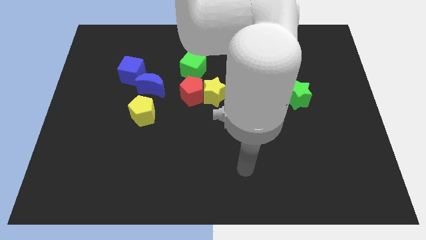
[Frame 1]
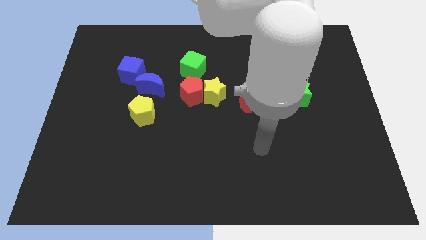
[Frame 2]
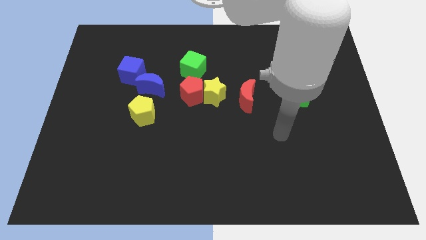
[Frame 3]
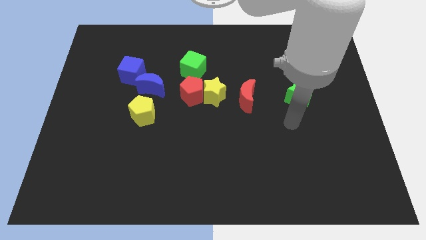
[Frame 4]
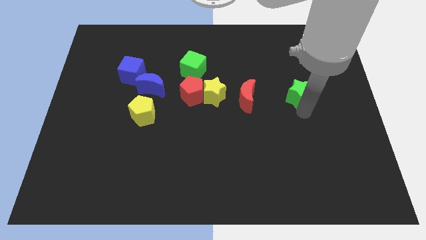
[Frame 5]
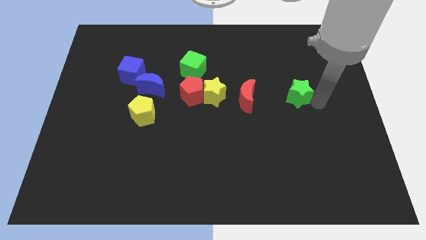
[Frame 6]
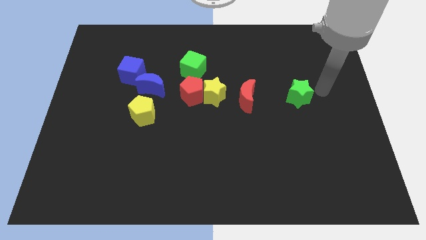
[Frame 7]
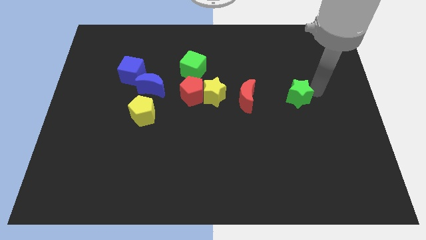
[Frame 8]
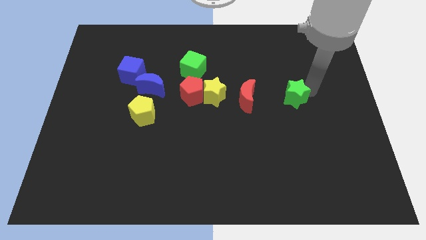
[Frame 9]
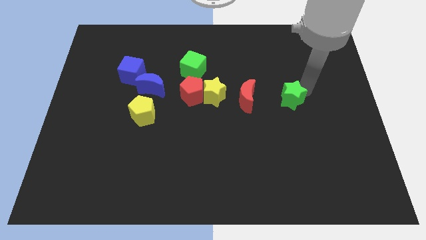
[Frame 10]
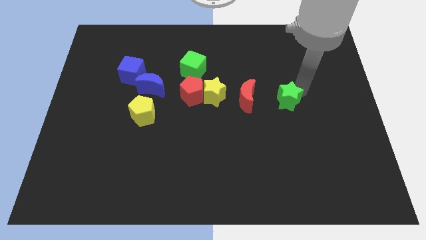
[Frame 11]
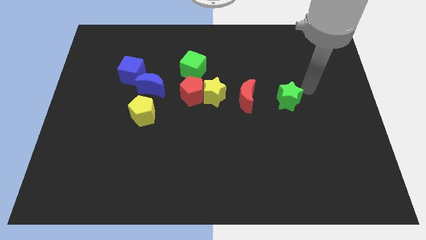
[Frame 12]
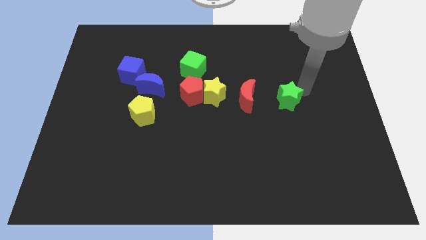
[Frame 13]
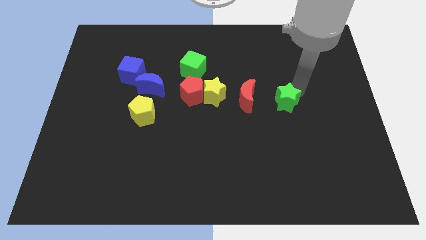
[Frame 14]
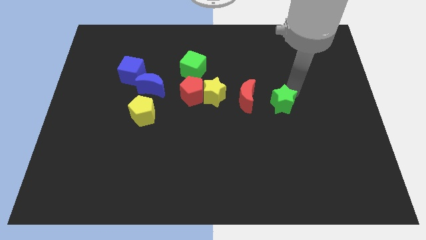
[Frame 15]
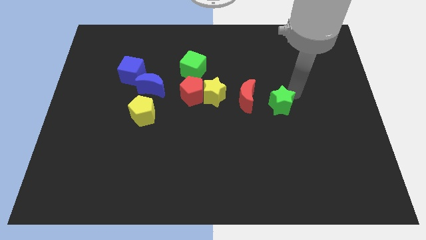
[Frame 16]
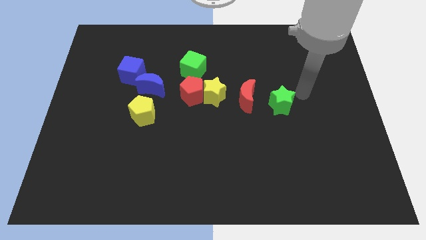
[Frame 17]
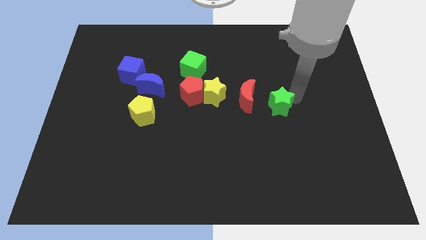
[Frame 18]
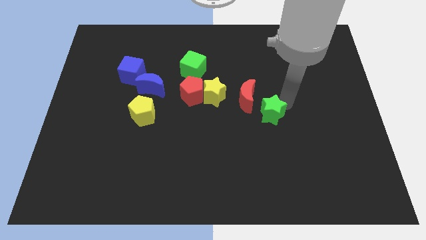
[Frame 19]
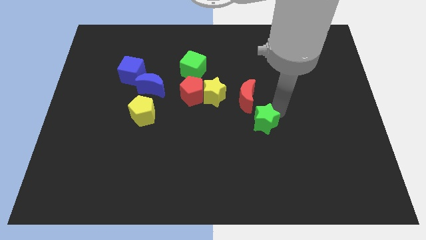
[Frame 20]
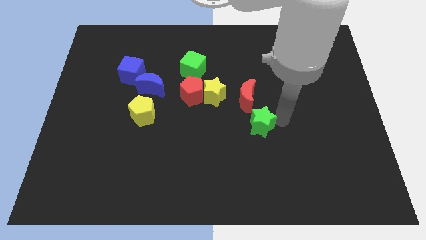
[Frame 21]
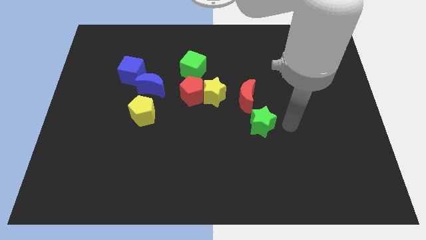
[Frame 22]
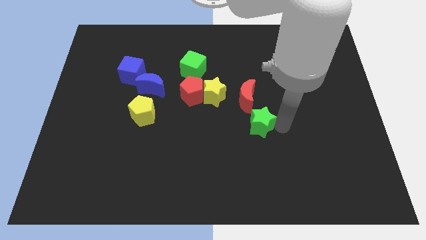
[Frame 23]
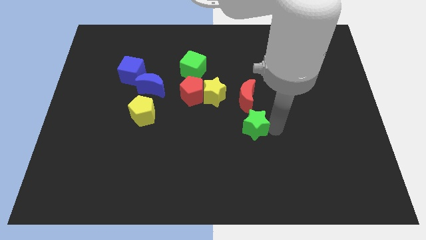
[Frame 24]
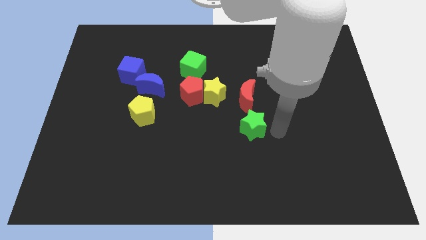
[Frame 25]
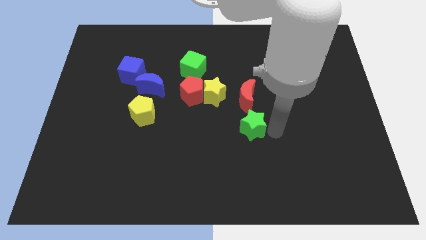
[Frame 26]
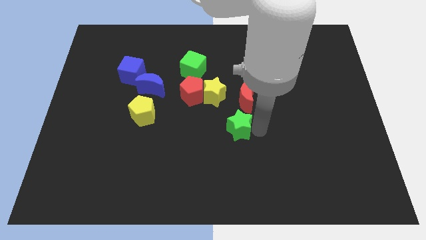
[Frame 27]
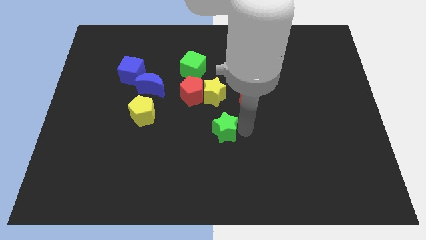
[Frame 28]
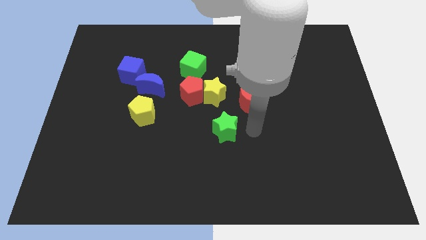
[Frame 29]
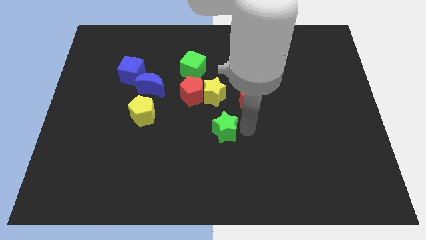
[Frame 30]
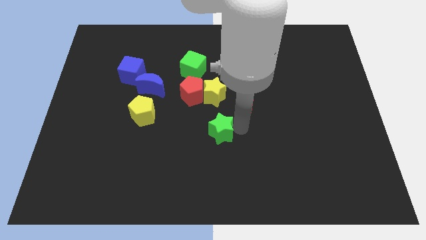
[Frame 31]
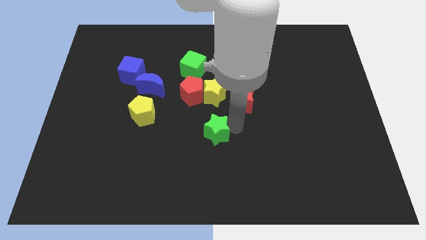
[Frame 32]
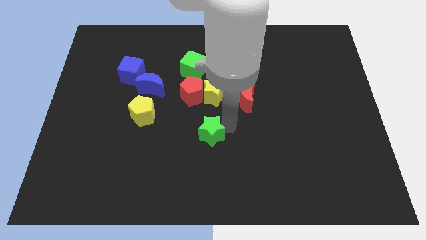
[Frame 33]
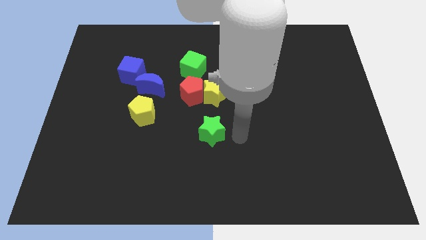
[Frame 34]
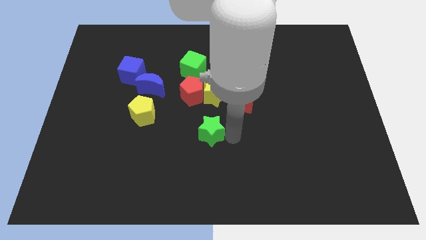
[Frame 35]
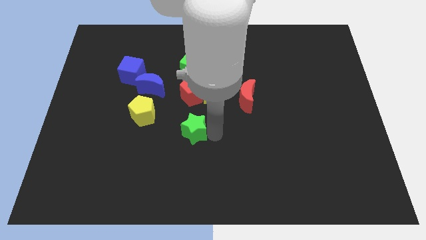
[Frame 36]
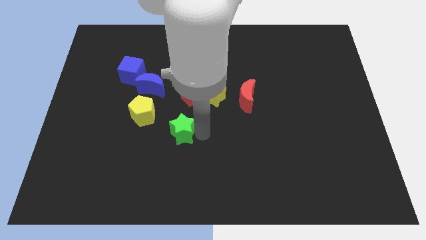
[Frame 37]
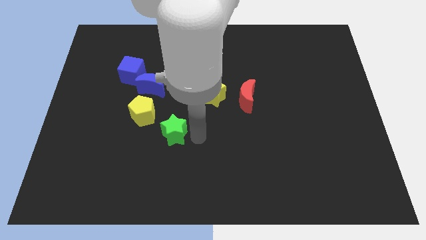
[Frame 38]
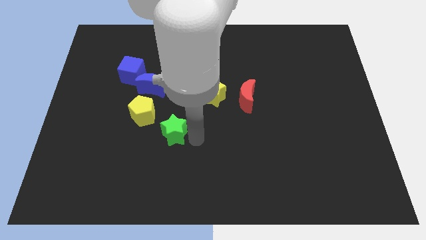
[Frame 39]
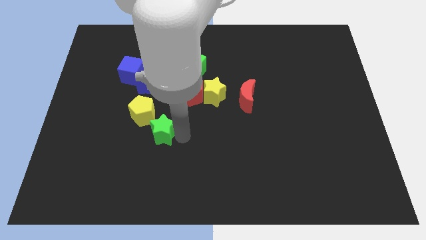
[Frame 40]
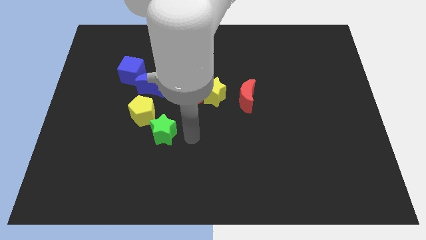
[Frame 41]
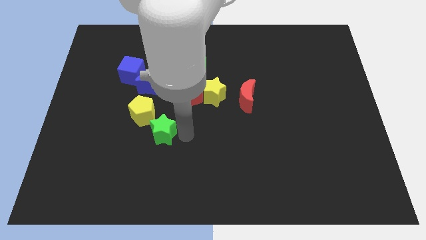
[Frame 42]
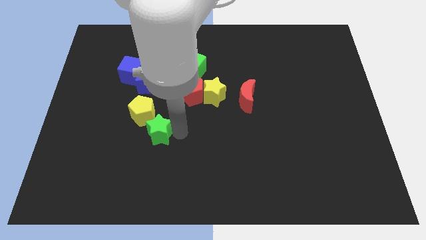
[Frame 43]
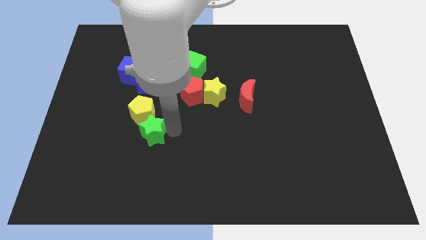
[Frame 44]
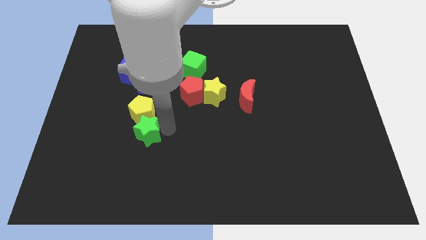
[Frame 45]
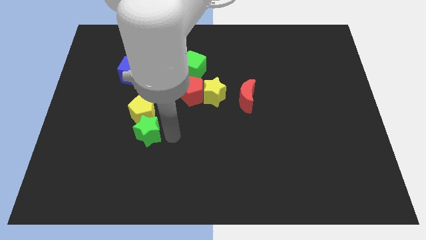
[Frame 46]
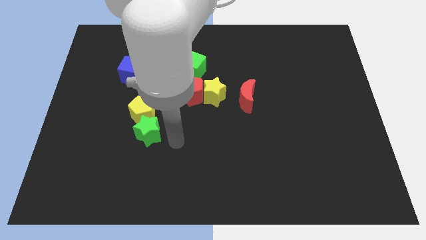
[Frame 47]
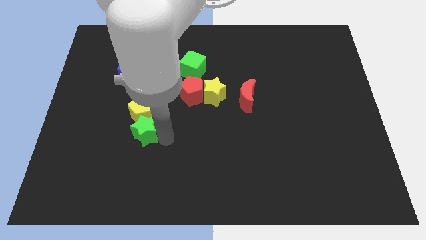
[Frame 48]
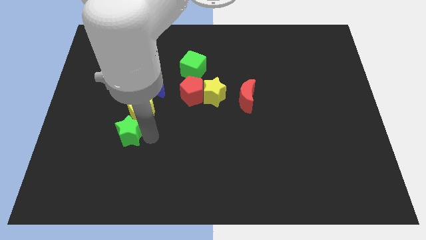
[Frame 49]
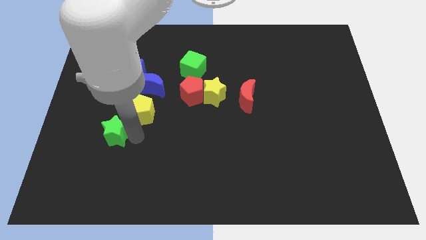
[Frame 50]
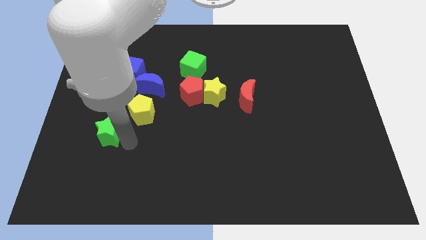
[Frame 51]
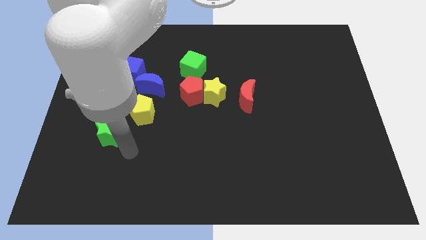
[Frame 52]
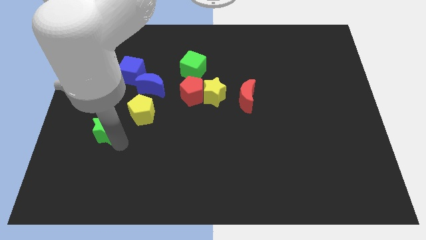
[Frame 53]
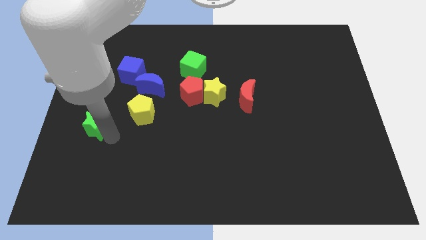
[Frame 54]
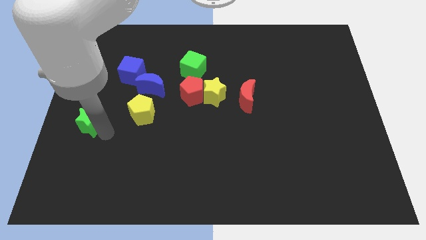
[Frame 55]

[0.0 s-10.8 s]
push the green star to the left side
